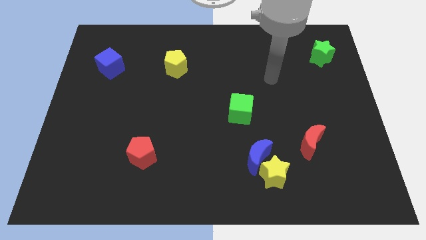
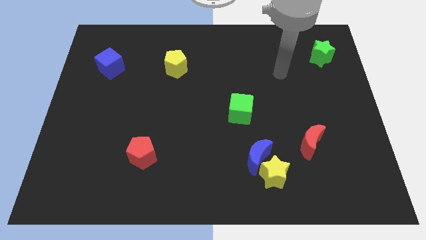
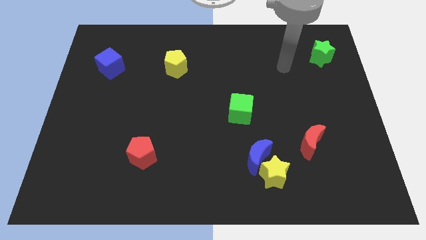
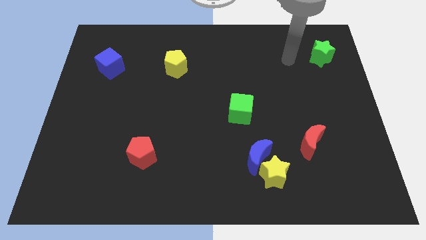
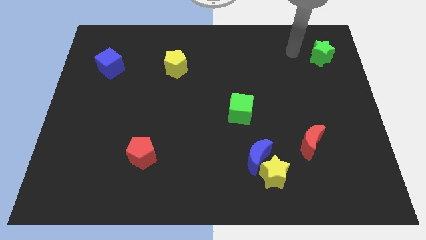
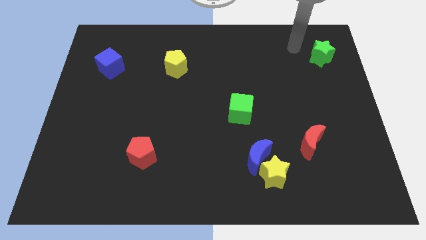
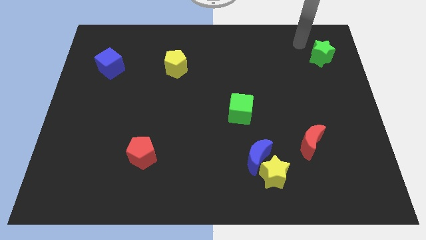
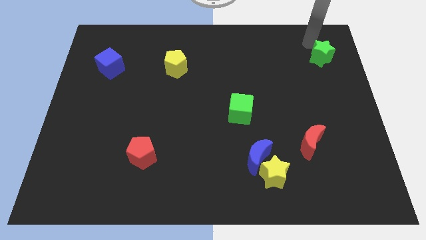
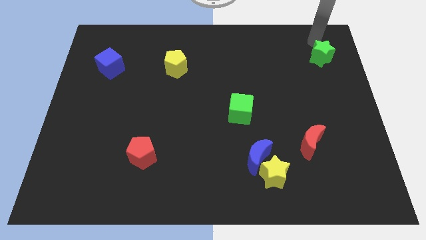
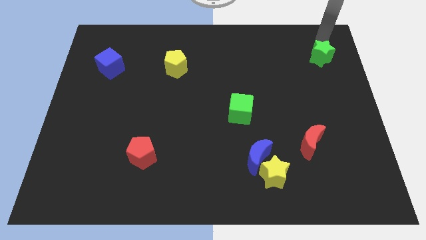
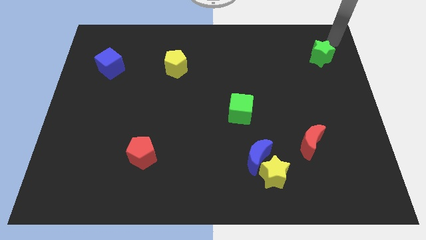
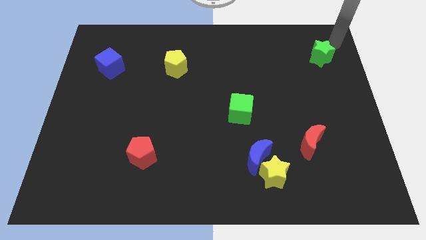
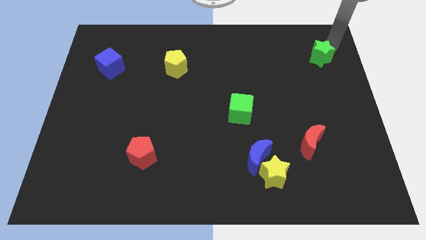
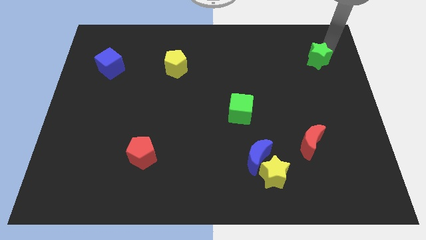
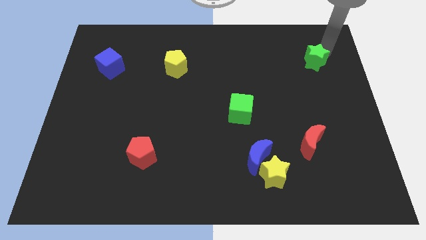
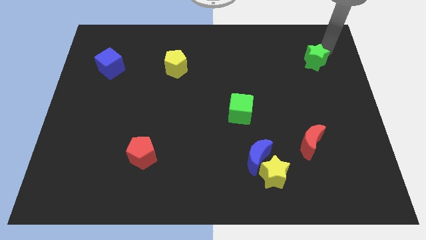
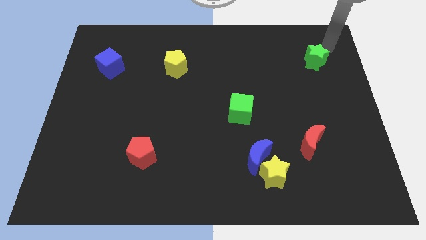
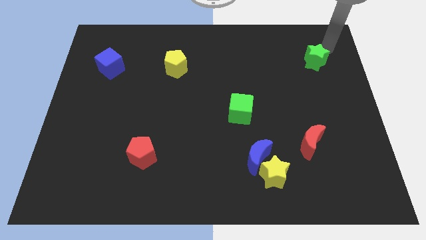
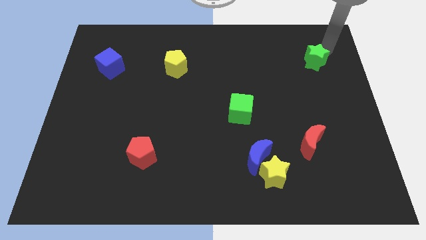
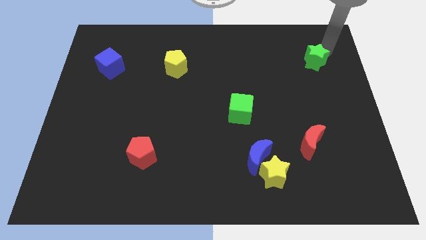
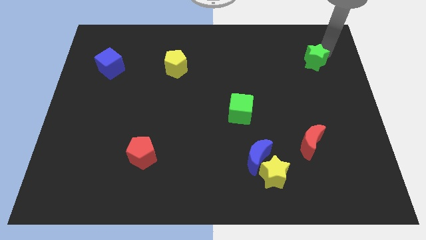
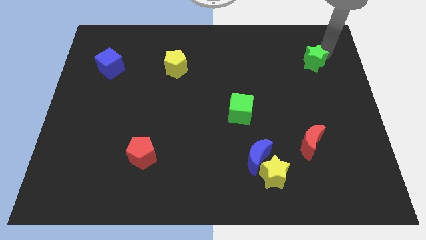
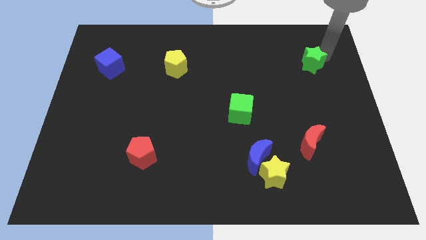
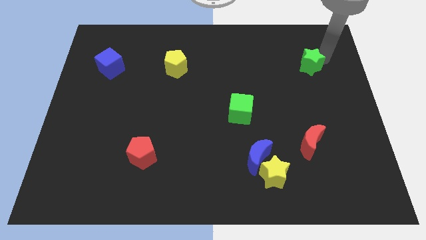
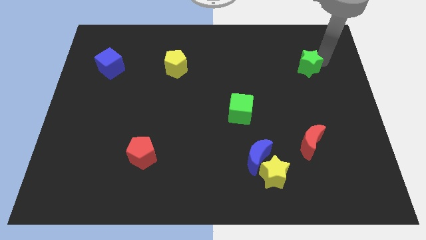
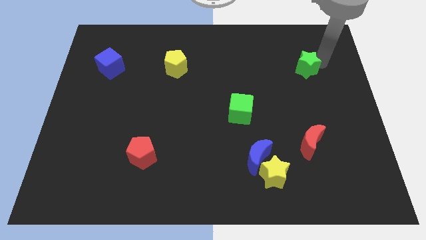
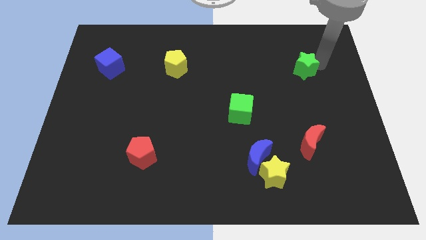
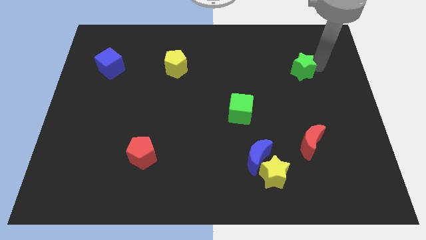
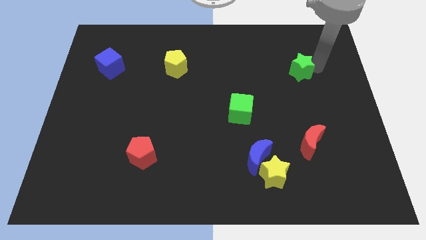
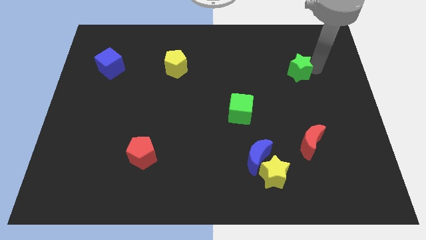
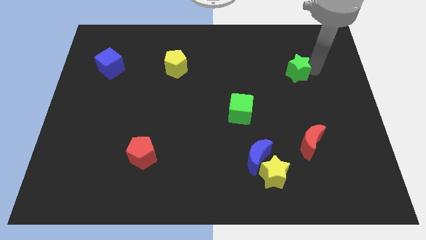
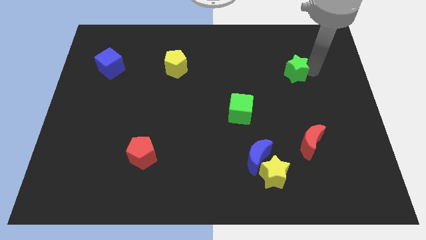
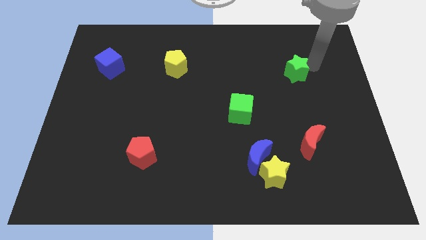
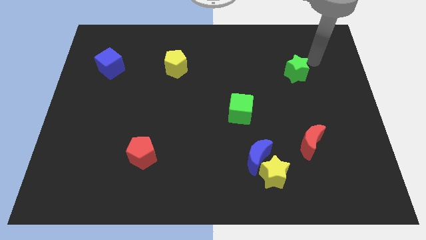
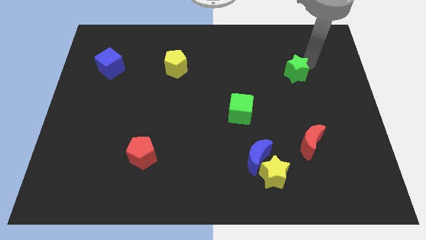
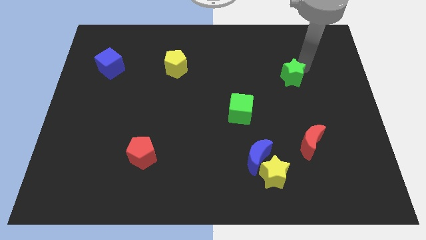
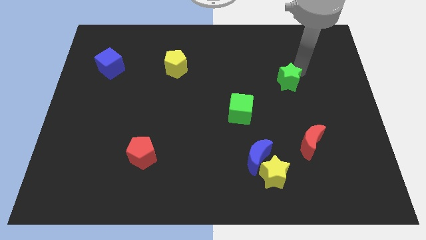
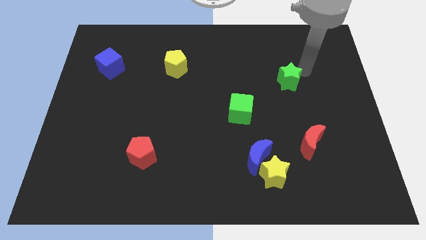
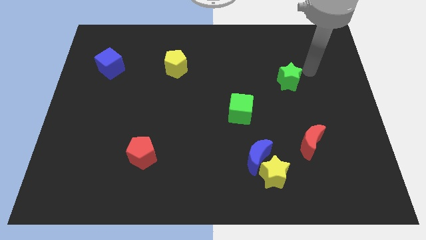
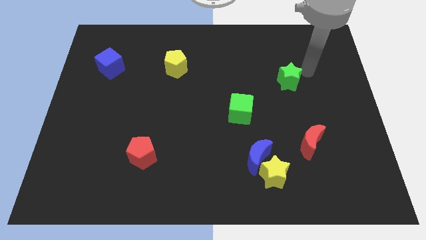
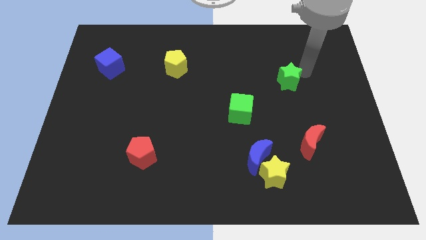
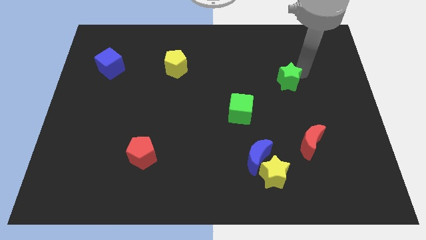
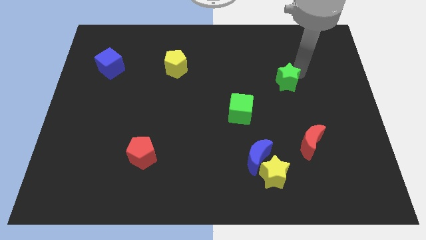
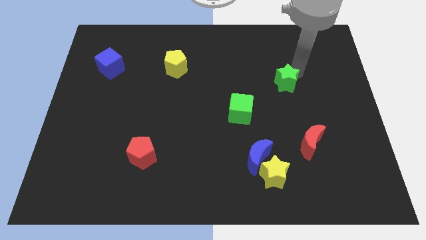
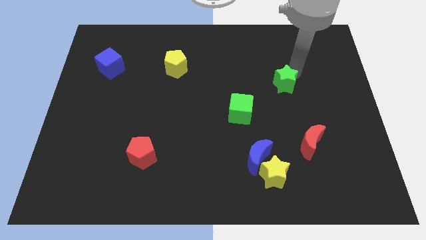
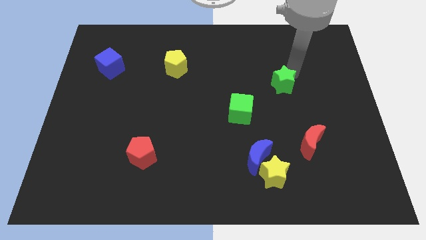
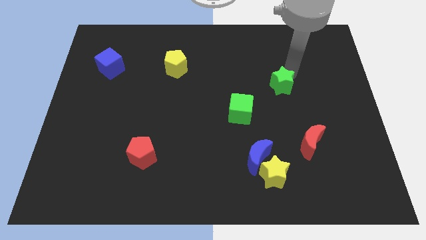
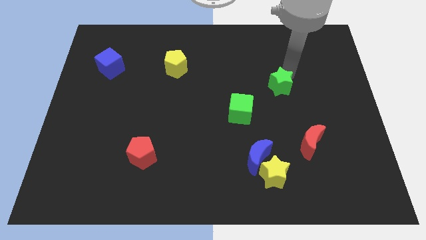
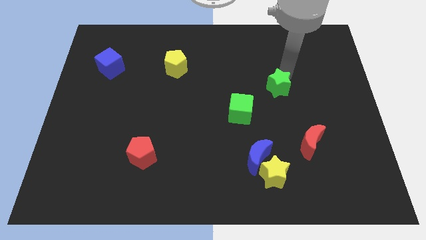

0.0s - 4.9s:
slide the green star to the top right side of the green cube

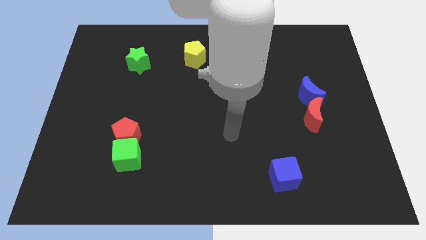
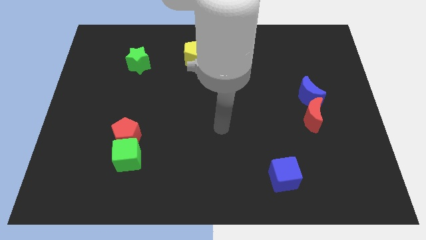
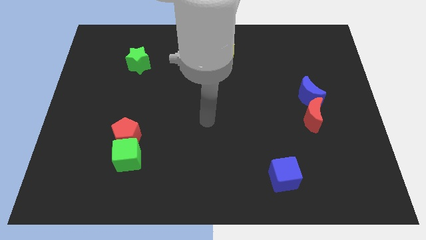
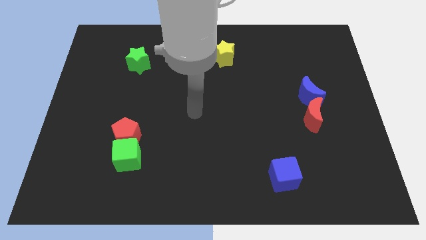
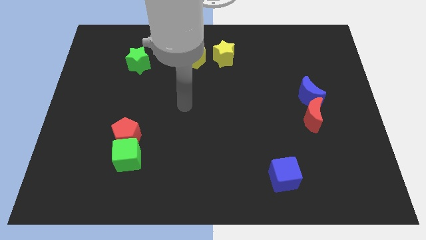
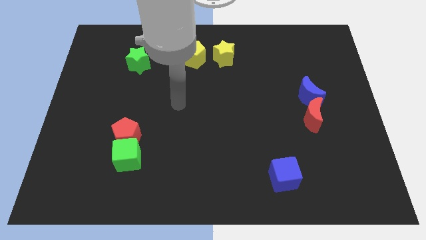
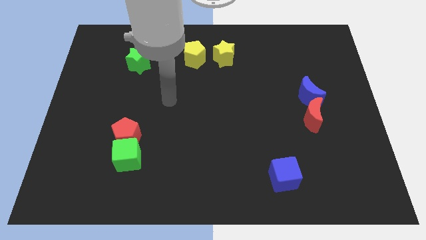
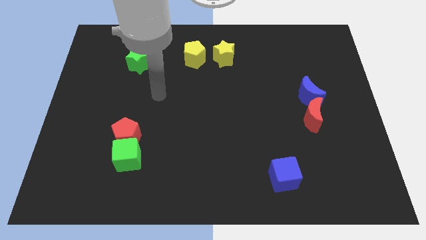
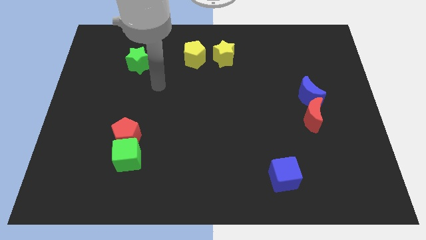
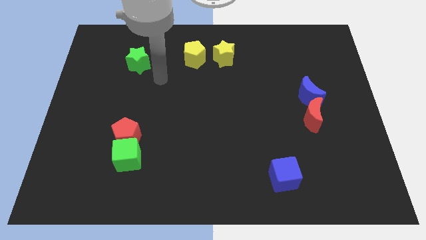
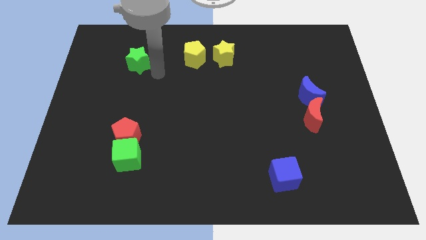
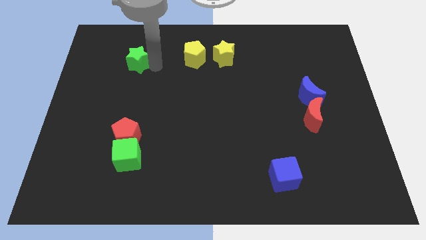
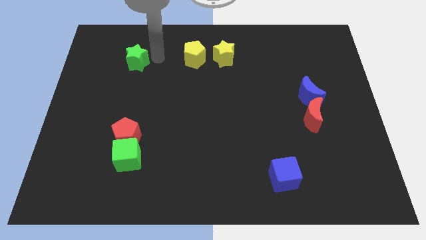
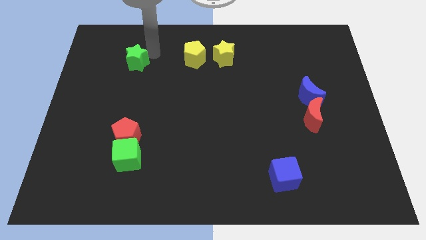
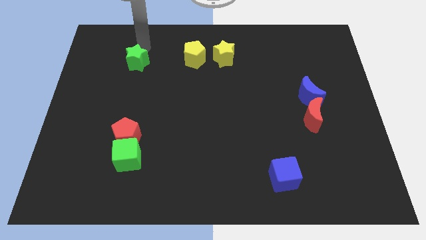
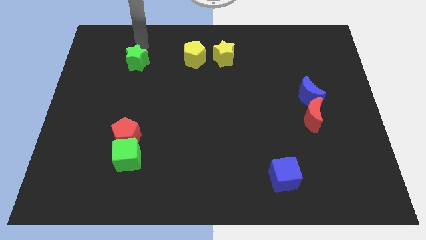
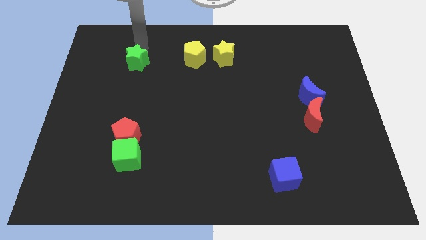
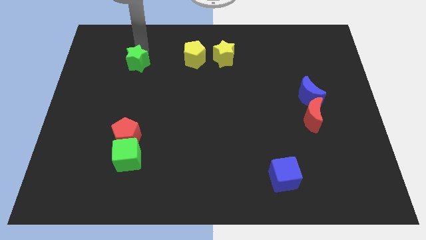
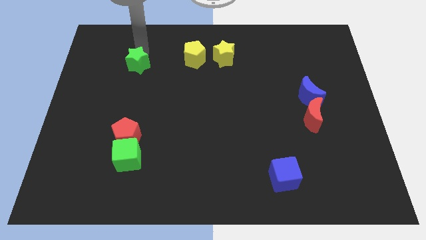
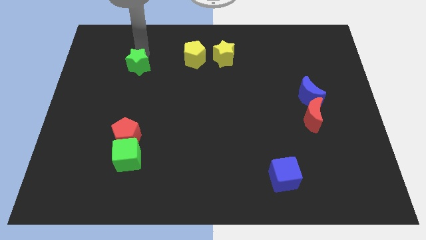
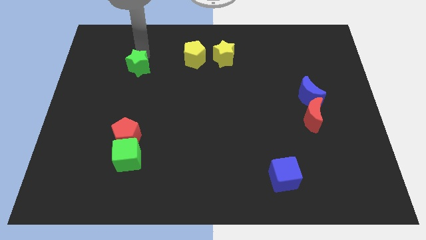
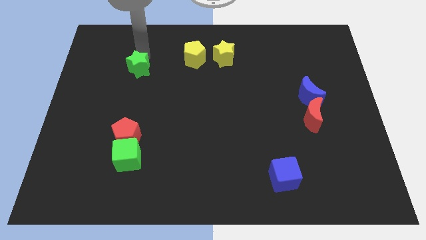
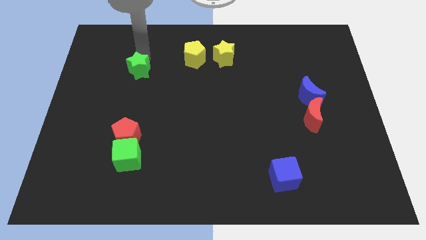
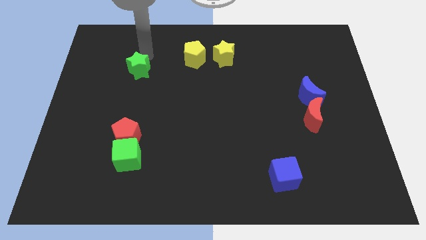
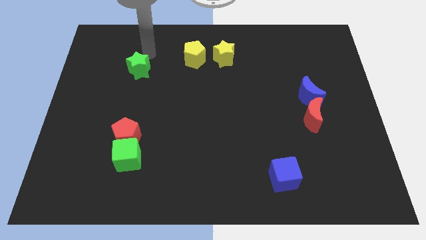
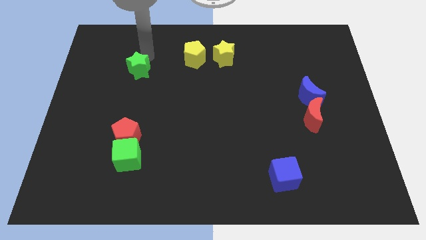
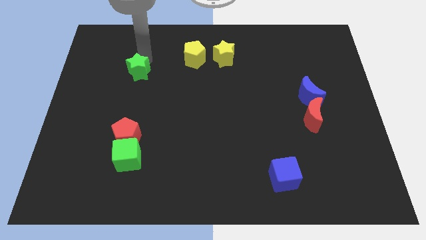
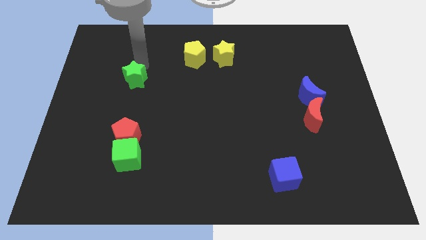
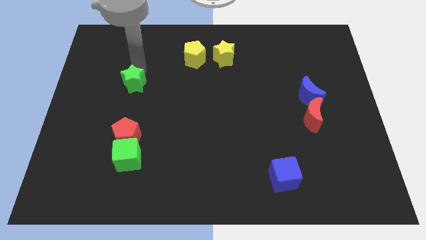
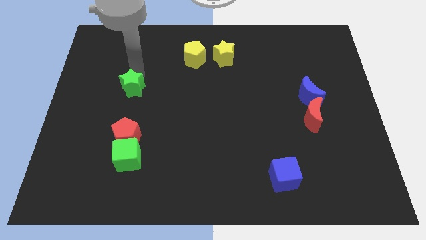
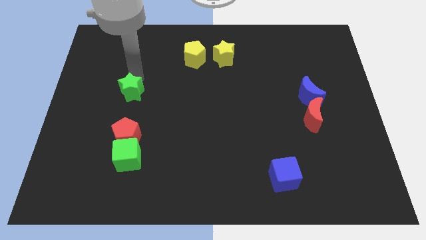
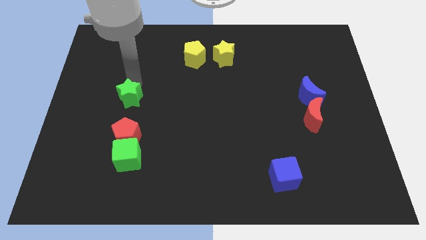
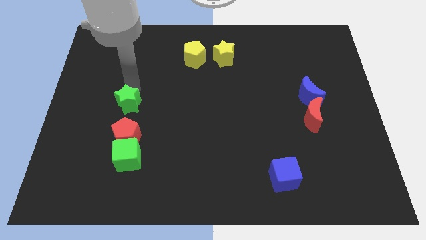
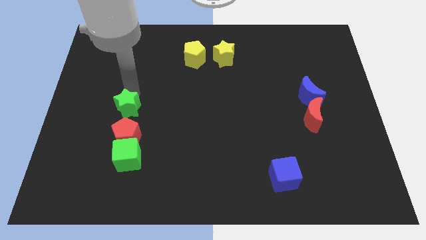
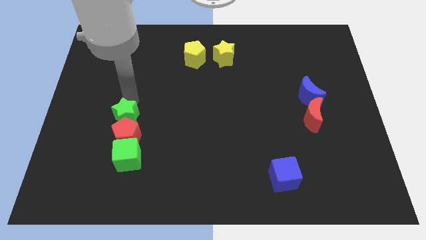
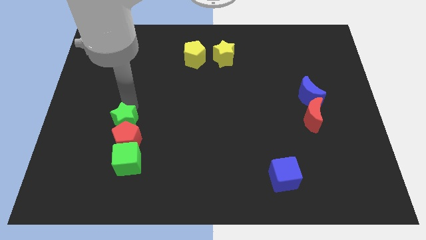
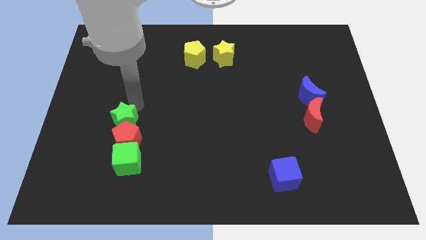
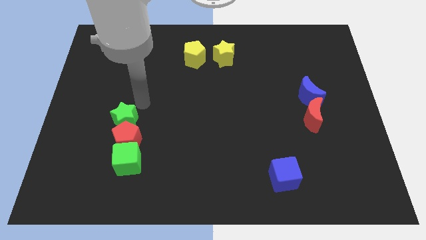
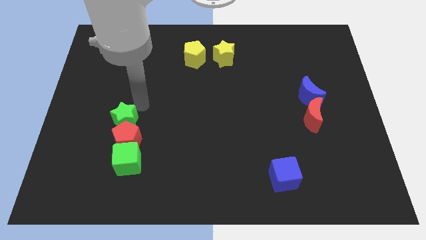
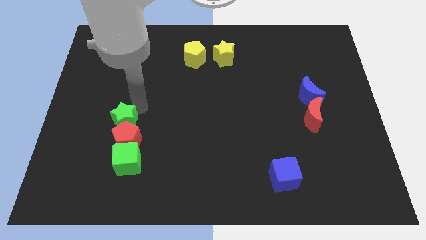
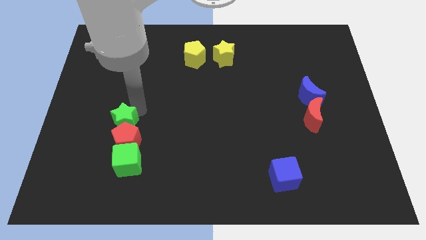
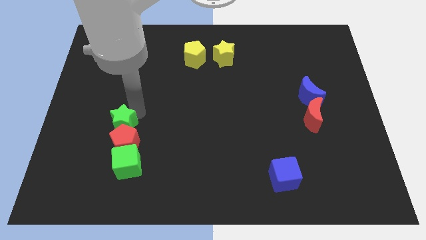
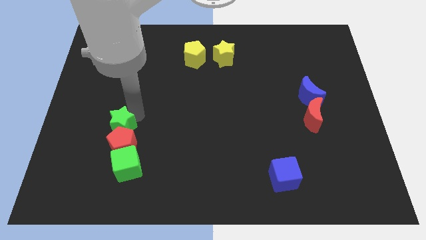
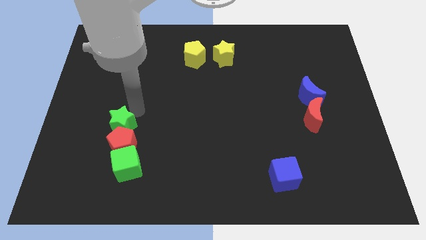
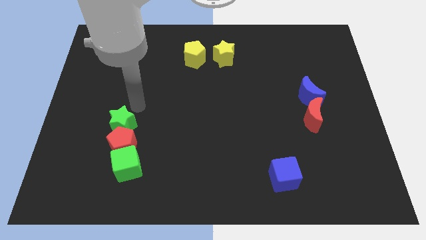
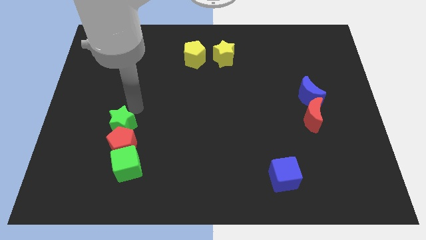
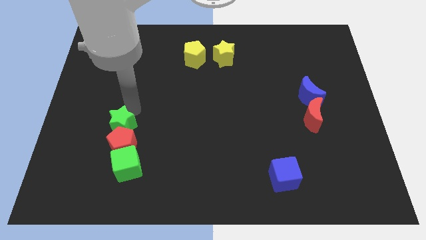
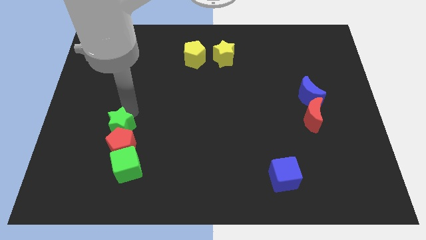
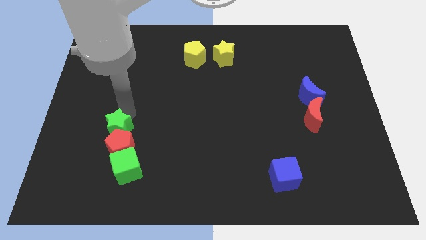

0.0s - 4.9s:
slide the green star to the top left of the green cube
